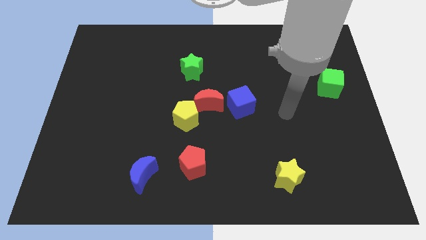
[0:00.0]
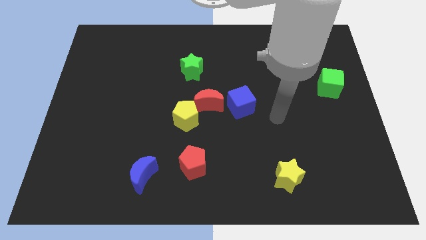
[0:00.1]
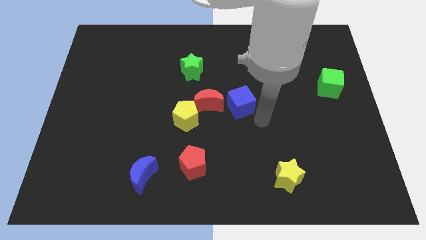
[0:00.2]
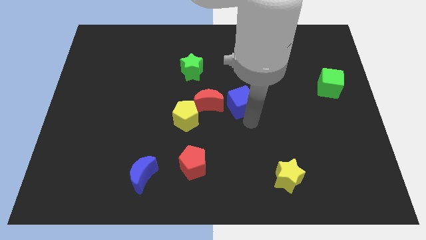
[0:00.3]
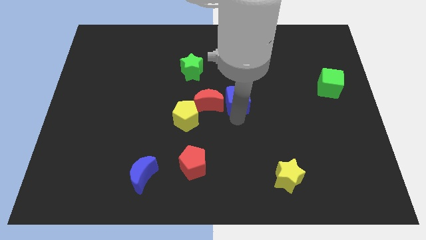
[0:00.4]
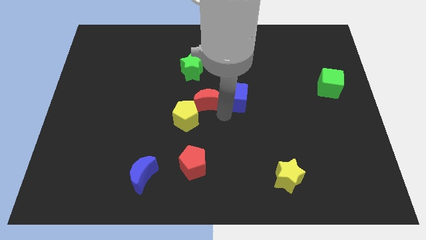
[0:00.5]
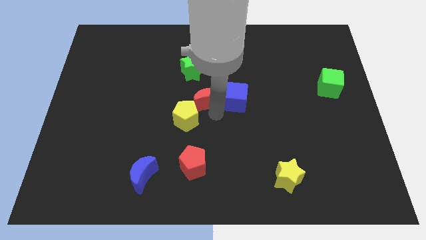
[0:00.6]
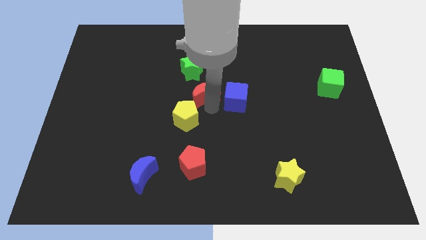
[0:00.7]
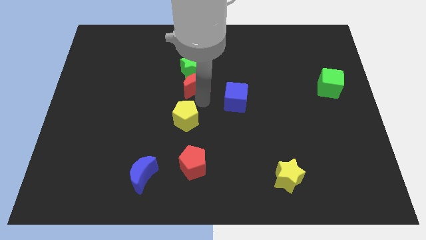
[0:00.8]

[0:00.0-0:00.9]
pull the yellow pentagon apart from the red moon

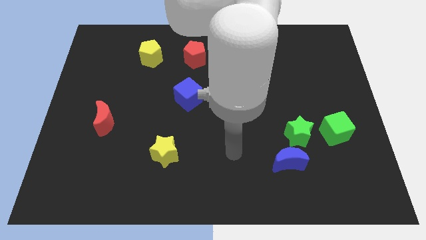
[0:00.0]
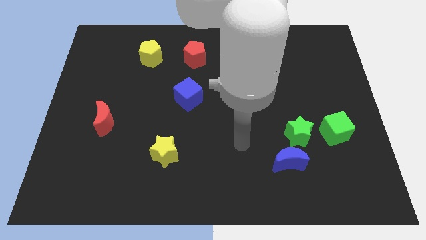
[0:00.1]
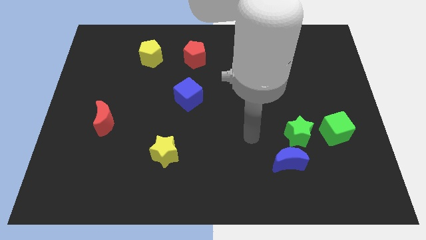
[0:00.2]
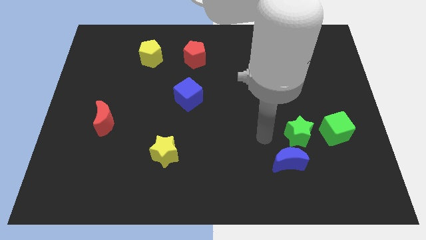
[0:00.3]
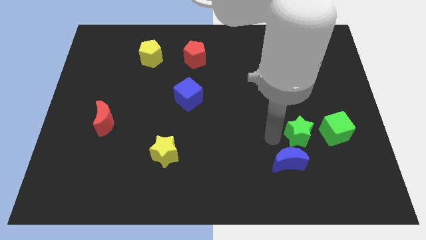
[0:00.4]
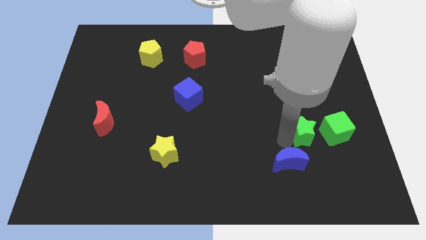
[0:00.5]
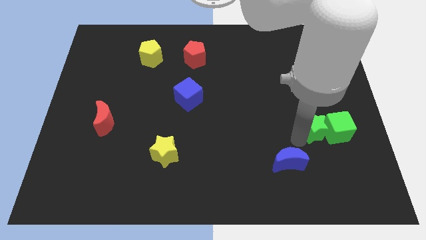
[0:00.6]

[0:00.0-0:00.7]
separate the blue moon from the green star

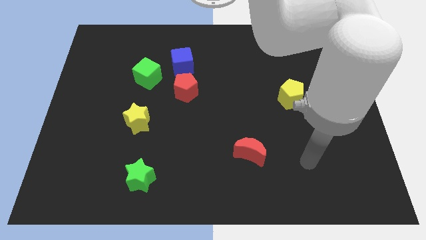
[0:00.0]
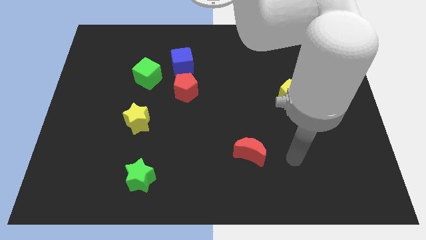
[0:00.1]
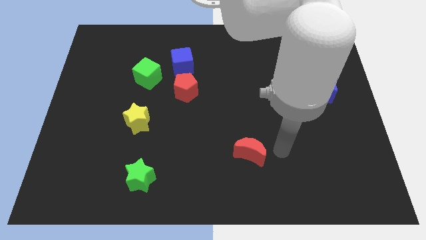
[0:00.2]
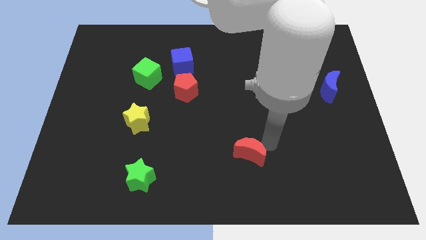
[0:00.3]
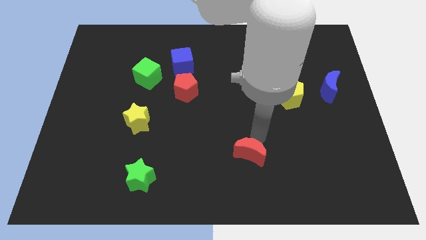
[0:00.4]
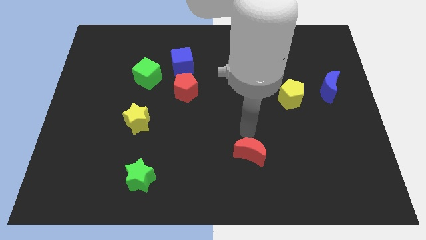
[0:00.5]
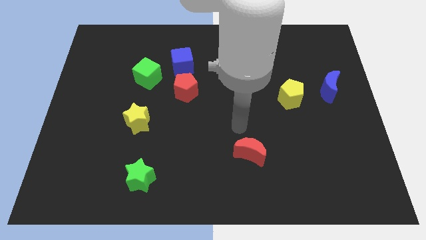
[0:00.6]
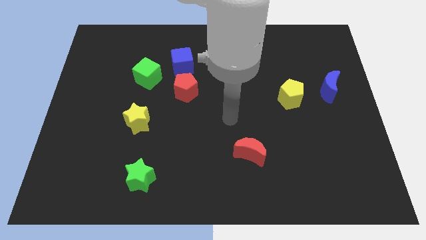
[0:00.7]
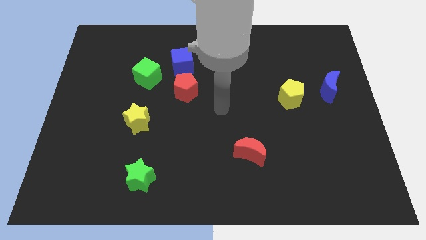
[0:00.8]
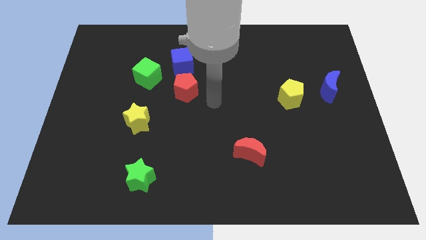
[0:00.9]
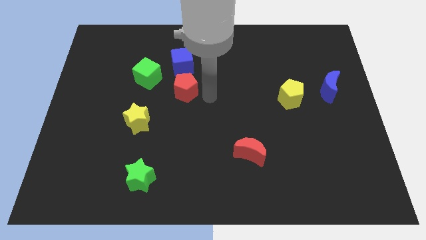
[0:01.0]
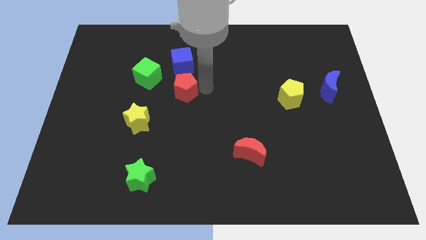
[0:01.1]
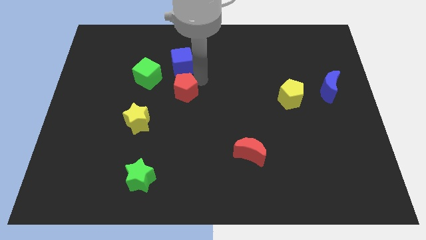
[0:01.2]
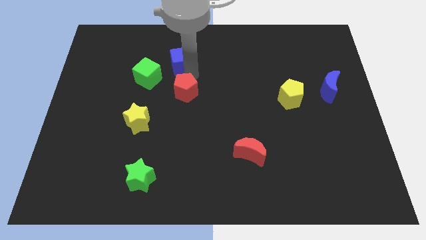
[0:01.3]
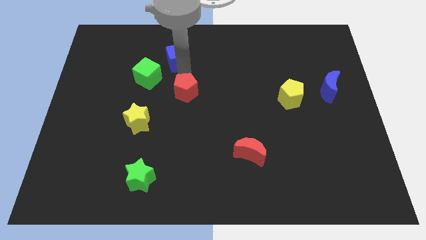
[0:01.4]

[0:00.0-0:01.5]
separate the red pentagon from the blue cube

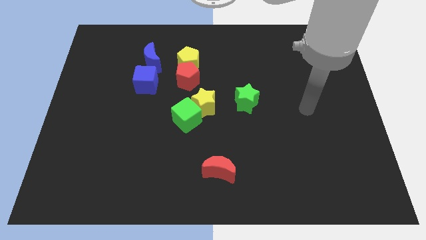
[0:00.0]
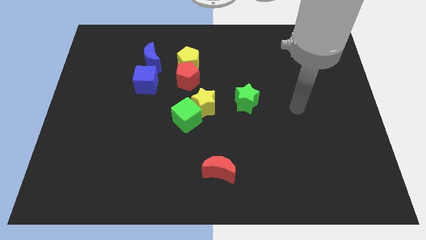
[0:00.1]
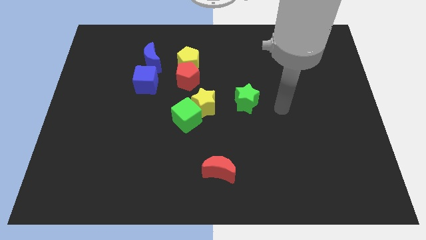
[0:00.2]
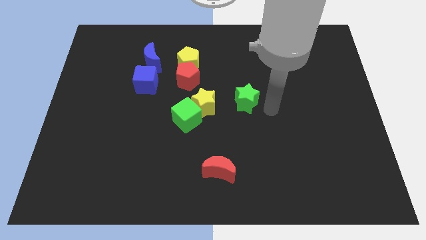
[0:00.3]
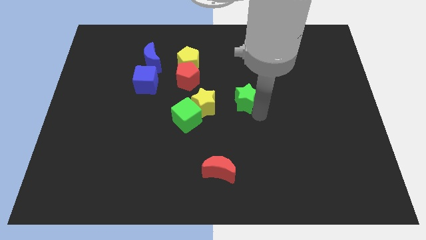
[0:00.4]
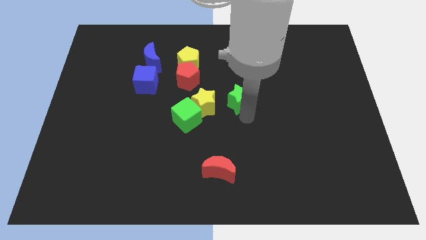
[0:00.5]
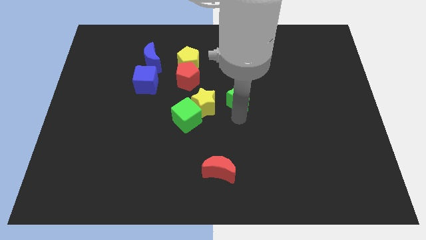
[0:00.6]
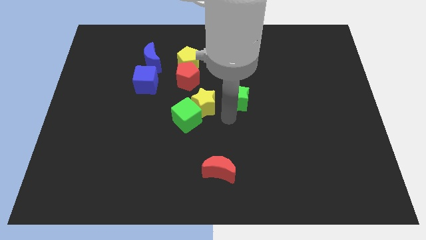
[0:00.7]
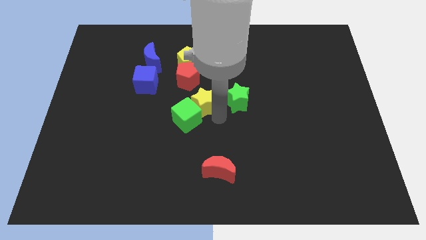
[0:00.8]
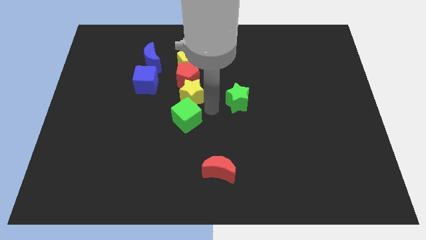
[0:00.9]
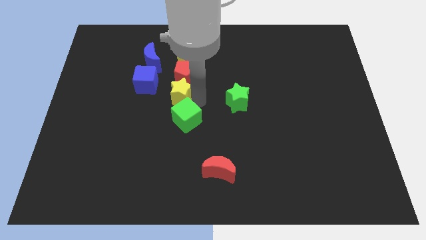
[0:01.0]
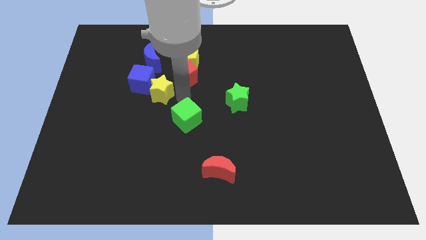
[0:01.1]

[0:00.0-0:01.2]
separate the green cube from the yellow star

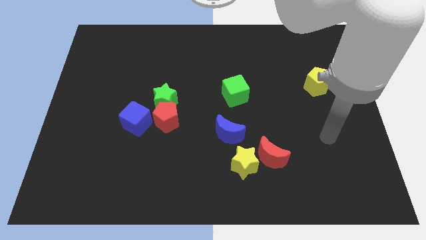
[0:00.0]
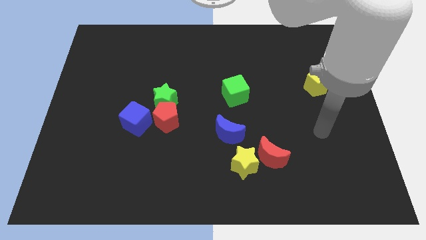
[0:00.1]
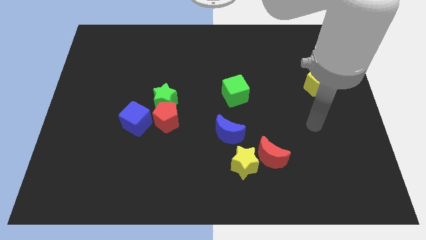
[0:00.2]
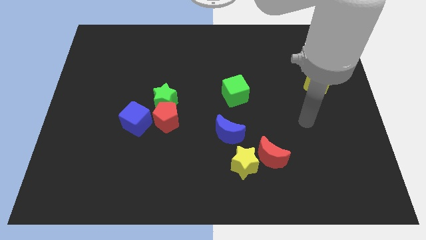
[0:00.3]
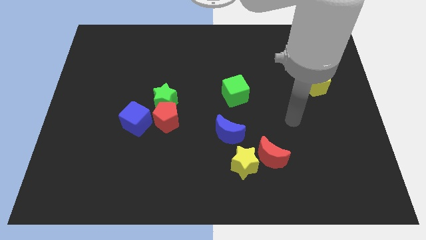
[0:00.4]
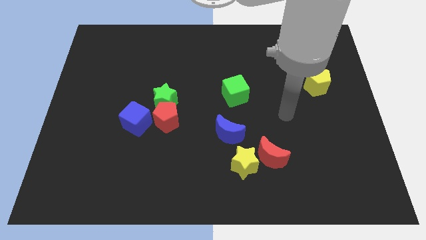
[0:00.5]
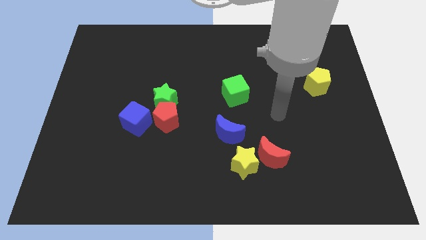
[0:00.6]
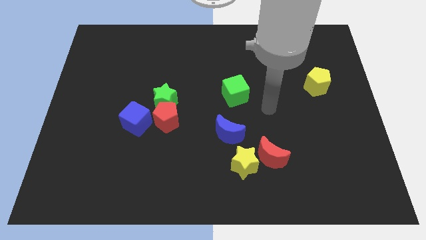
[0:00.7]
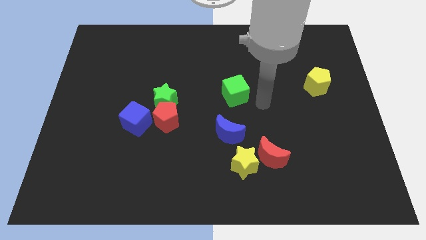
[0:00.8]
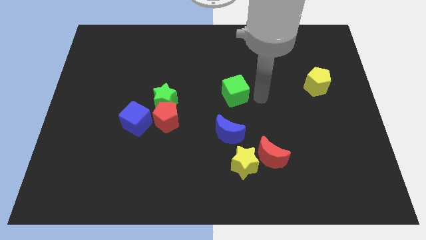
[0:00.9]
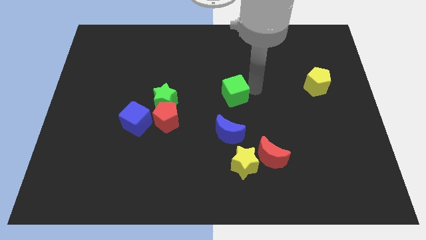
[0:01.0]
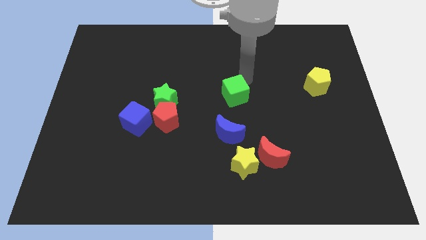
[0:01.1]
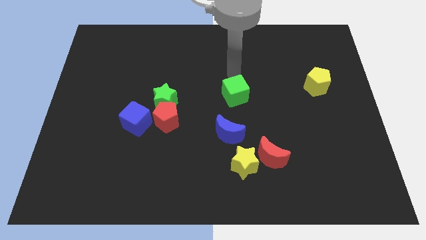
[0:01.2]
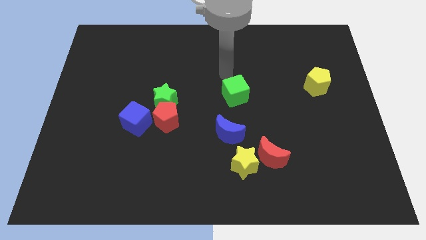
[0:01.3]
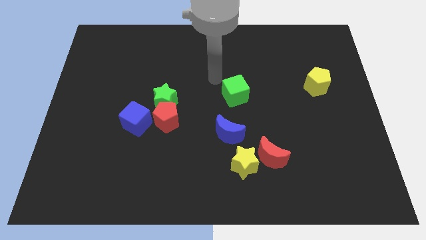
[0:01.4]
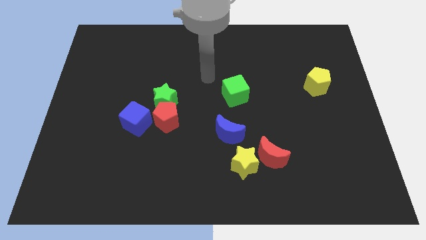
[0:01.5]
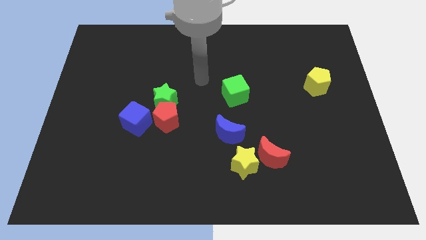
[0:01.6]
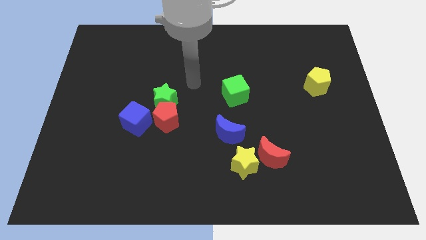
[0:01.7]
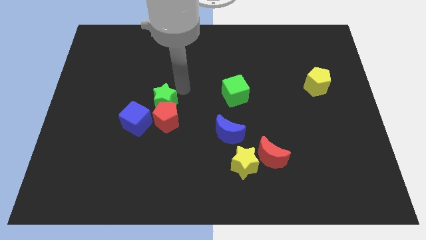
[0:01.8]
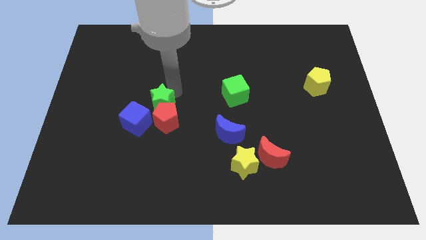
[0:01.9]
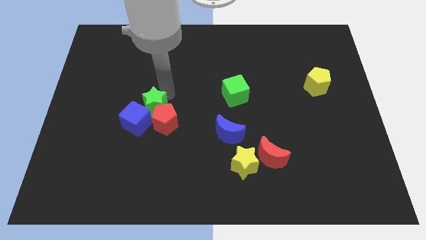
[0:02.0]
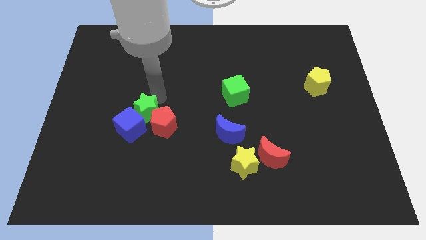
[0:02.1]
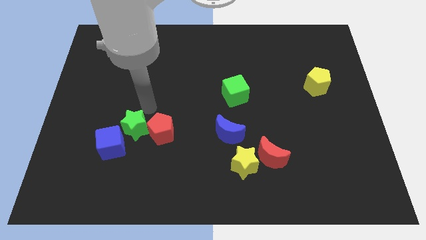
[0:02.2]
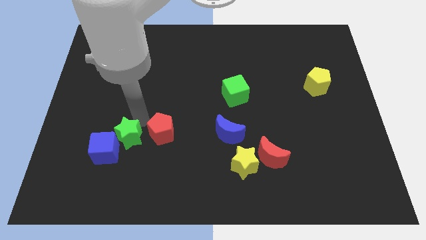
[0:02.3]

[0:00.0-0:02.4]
separate the red pentagon from the green star and blue cube

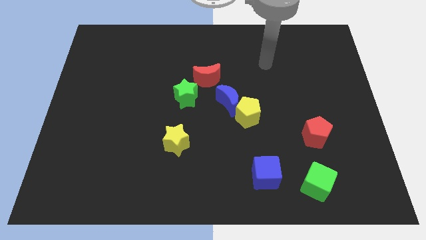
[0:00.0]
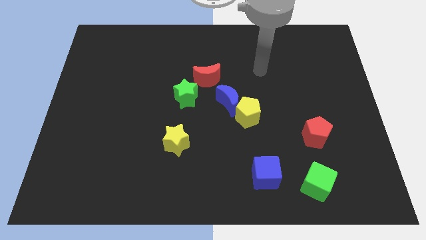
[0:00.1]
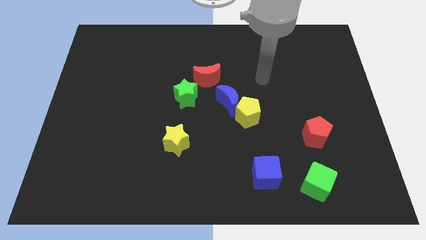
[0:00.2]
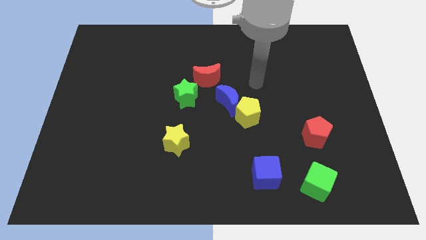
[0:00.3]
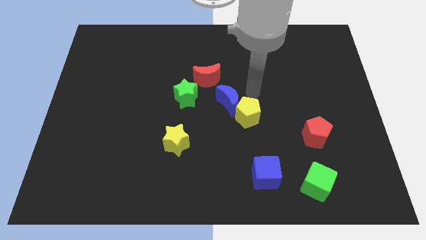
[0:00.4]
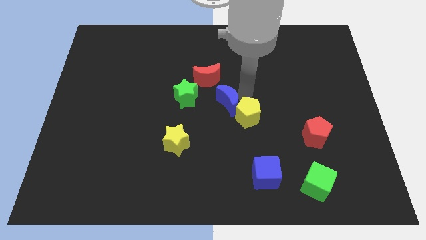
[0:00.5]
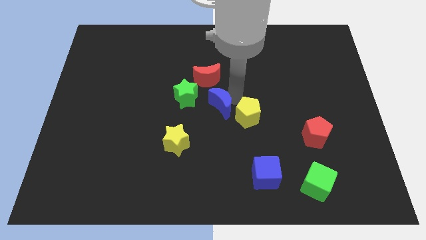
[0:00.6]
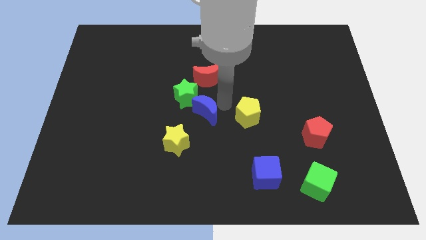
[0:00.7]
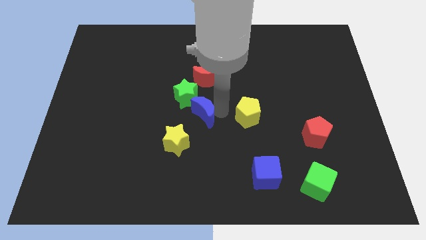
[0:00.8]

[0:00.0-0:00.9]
separate the yellow pentagon from the blue moon

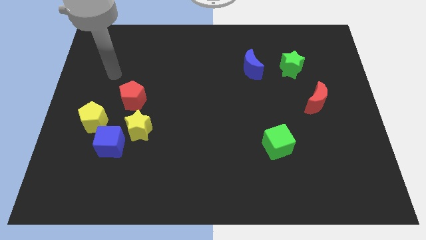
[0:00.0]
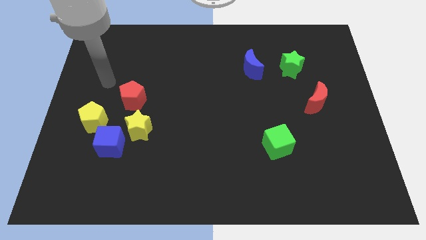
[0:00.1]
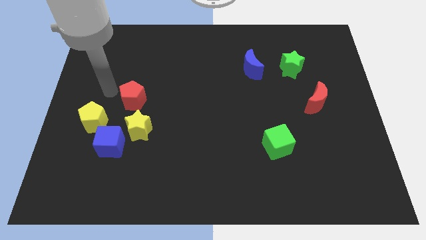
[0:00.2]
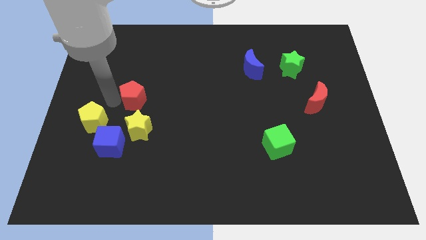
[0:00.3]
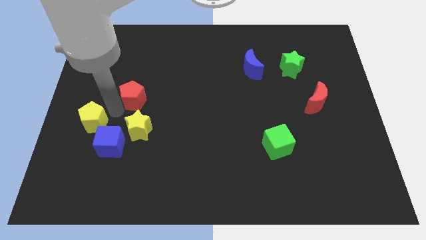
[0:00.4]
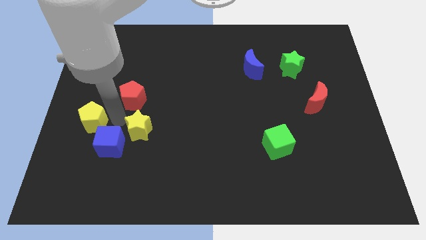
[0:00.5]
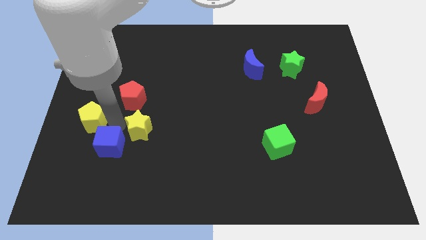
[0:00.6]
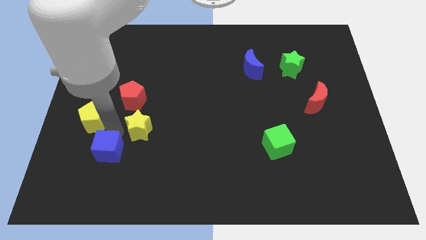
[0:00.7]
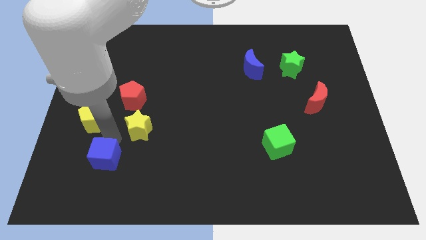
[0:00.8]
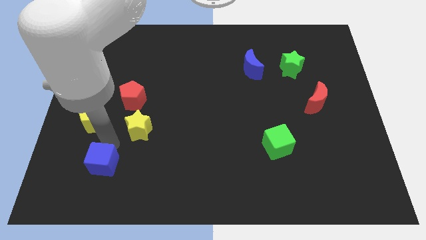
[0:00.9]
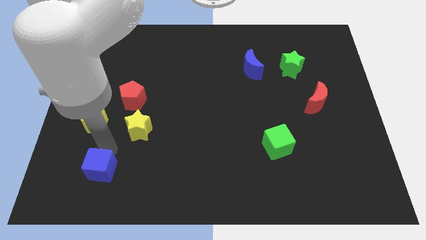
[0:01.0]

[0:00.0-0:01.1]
separate the blue cube from the yellow star and yellow pentagon

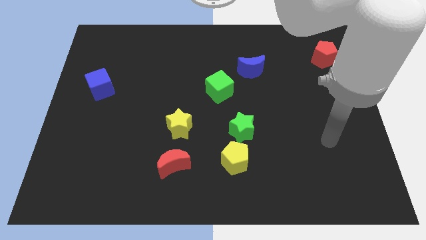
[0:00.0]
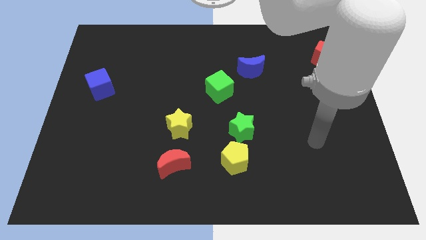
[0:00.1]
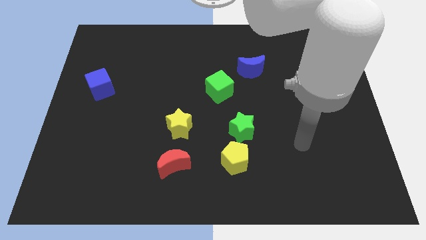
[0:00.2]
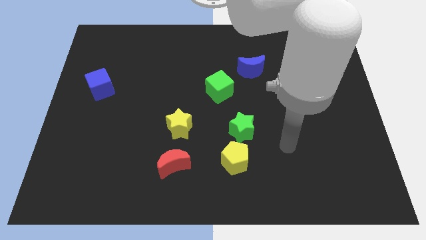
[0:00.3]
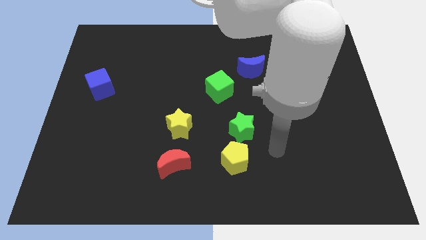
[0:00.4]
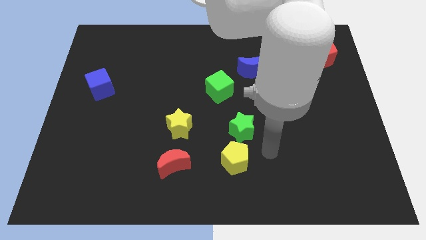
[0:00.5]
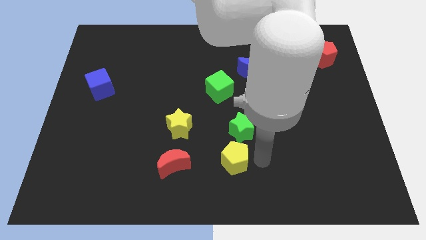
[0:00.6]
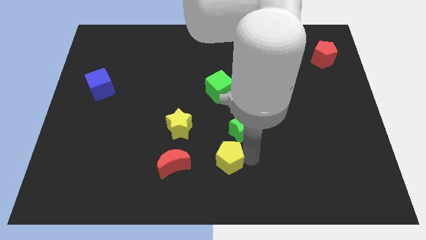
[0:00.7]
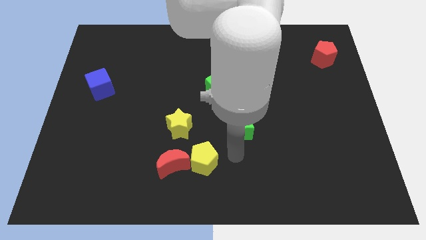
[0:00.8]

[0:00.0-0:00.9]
move the green star away from the yellow pentagon
